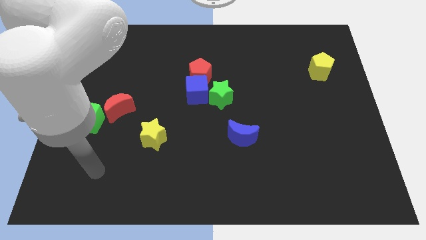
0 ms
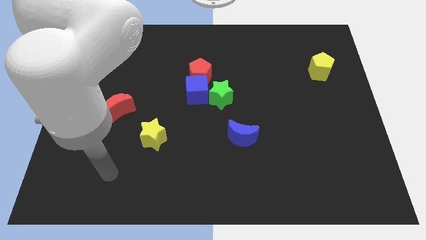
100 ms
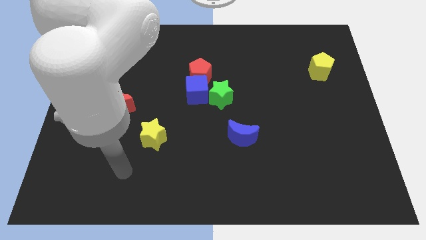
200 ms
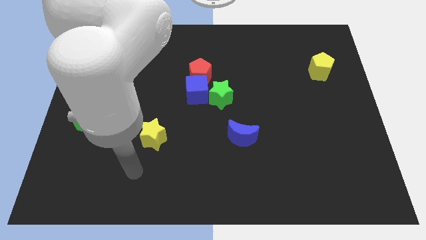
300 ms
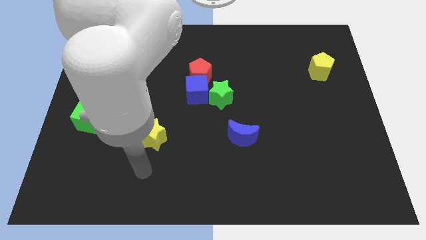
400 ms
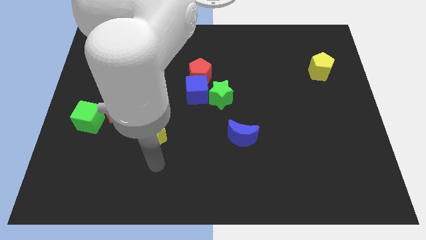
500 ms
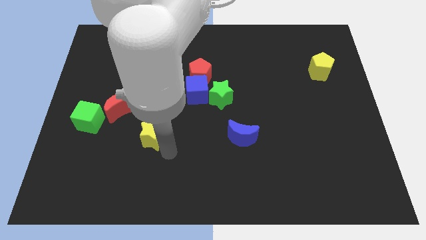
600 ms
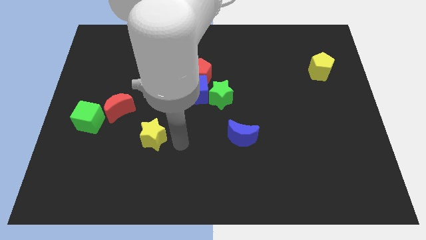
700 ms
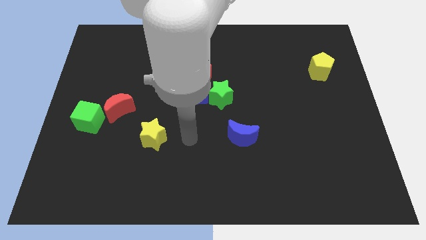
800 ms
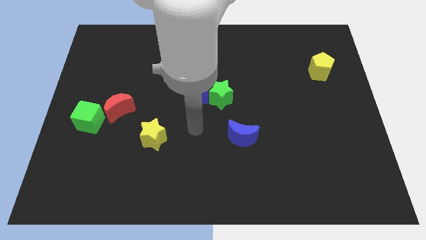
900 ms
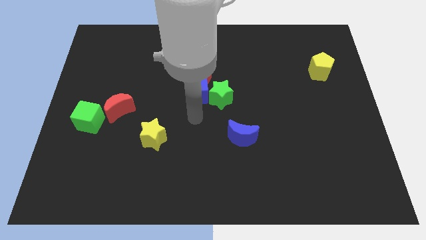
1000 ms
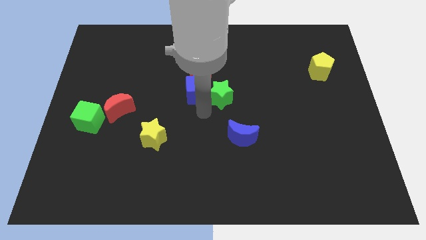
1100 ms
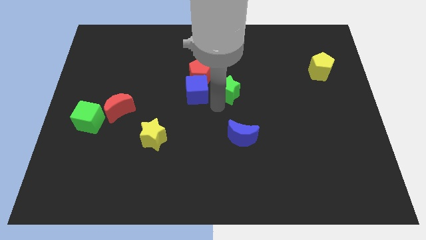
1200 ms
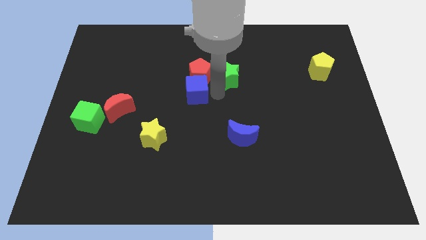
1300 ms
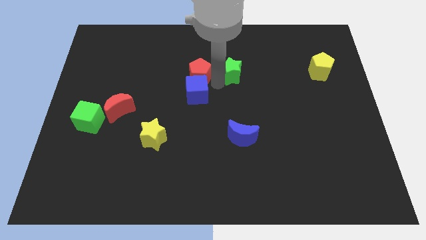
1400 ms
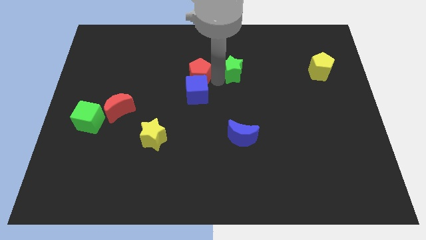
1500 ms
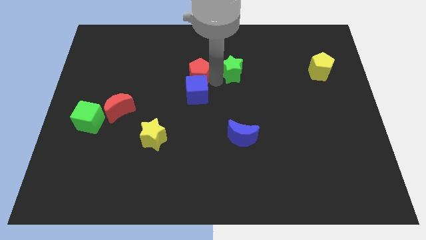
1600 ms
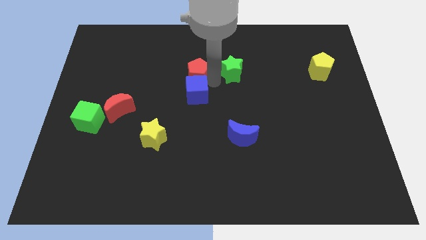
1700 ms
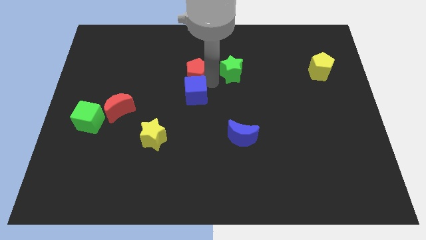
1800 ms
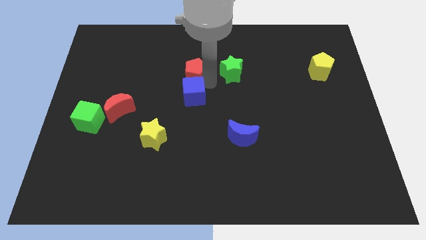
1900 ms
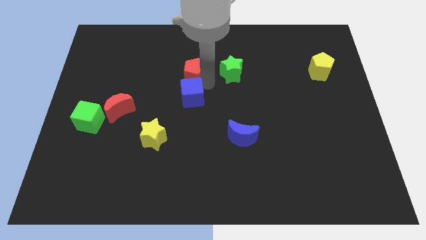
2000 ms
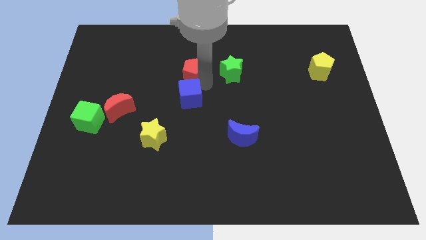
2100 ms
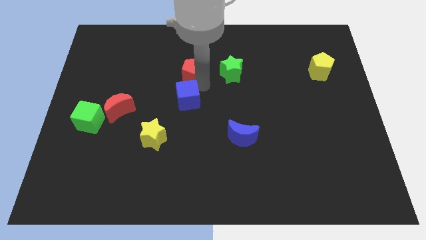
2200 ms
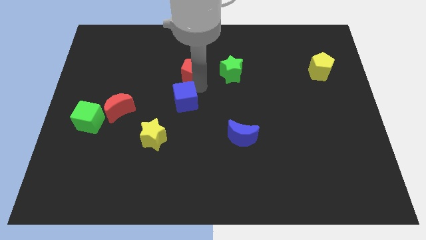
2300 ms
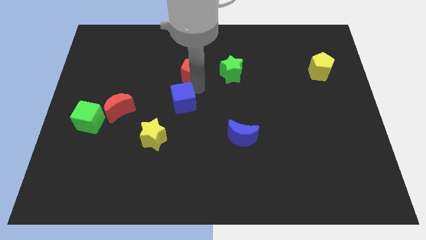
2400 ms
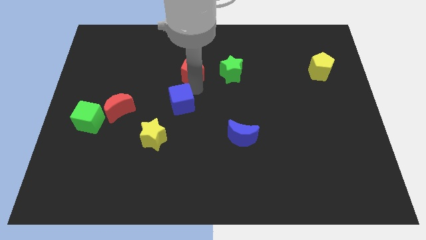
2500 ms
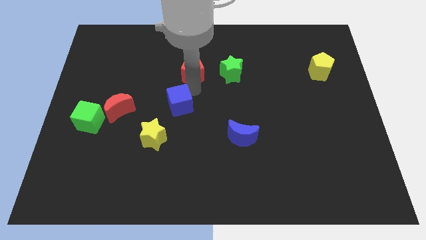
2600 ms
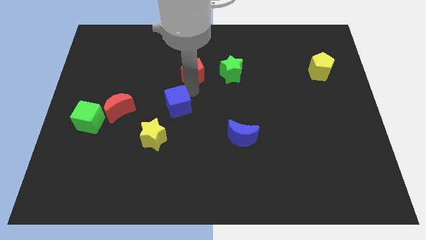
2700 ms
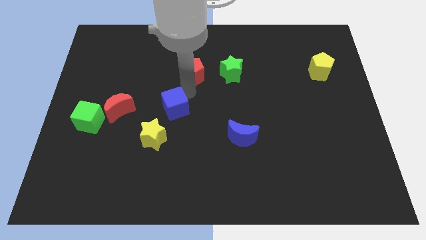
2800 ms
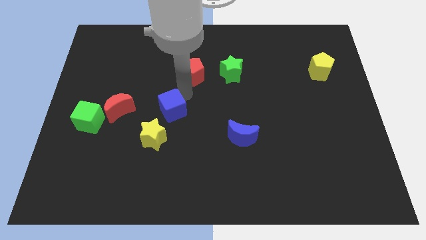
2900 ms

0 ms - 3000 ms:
move the blue cube diagonally down and to the left a little

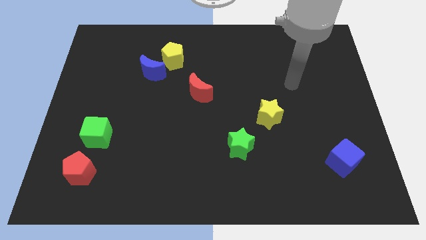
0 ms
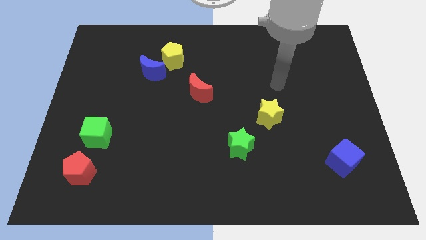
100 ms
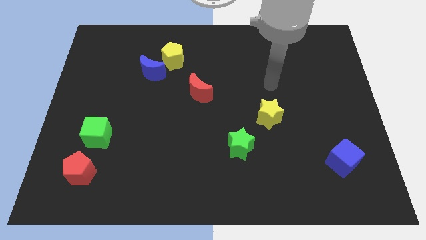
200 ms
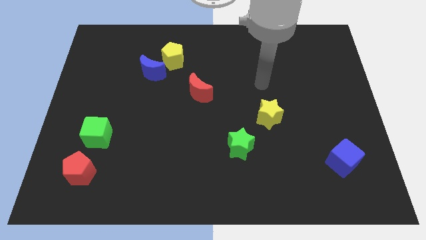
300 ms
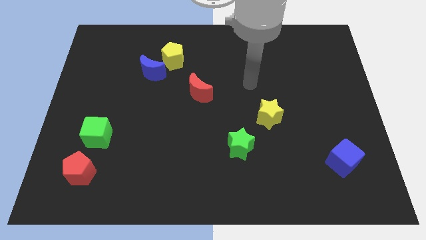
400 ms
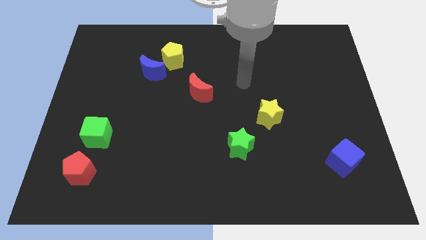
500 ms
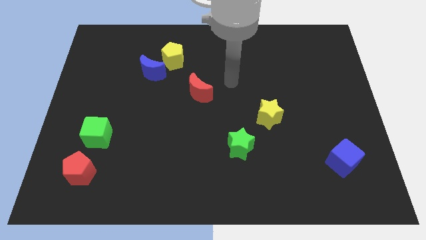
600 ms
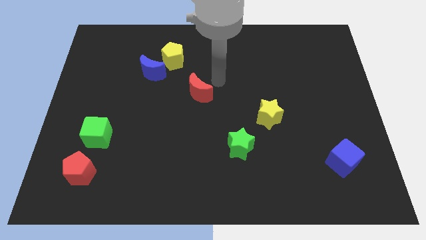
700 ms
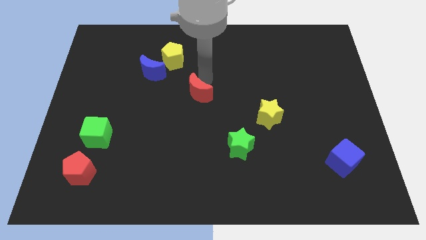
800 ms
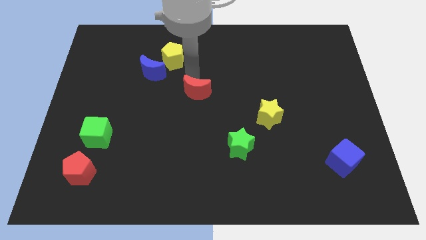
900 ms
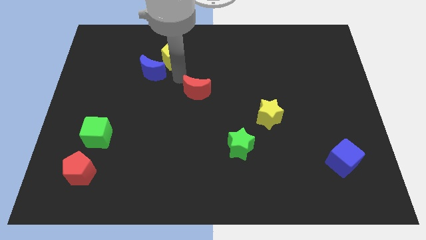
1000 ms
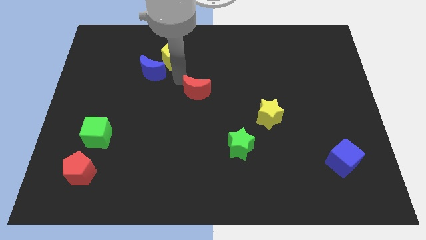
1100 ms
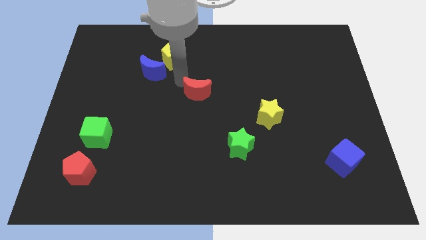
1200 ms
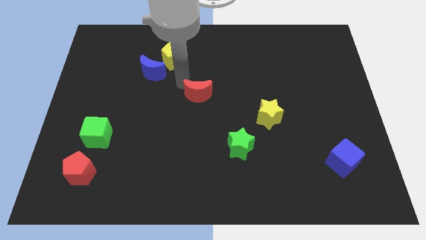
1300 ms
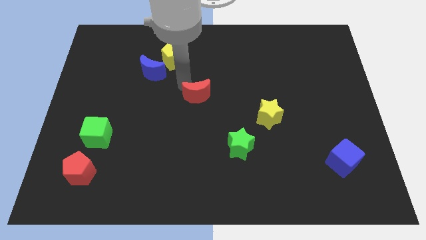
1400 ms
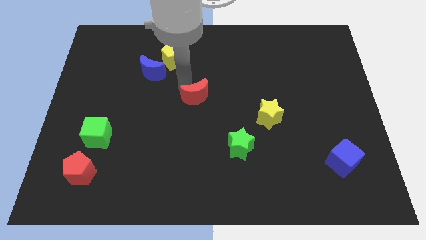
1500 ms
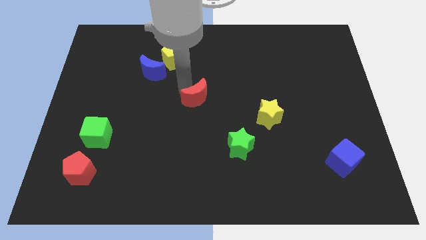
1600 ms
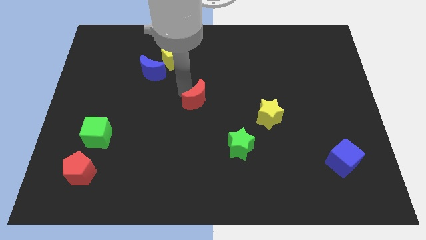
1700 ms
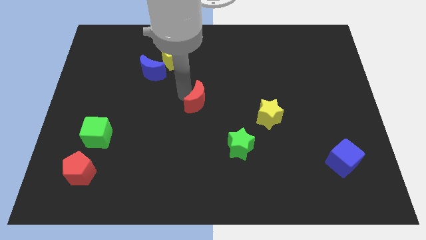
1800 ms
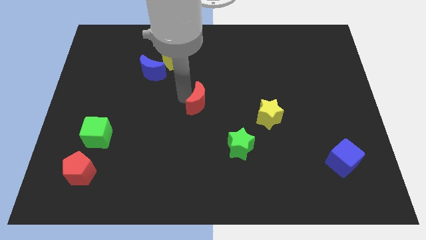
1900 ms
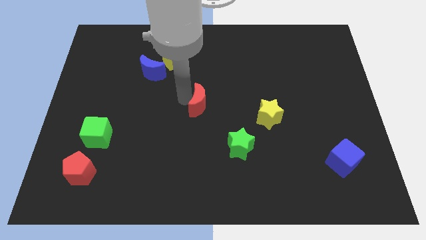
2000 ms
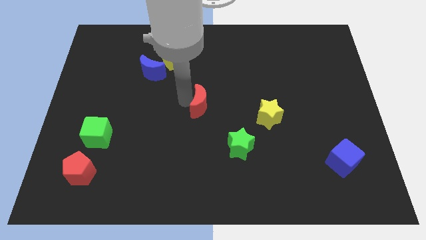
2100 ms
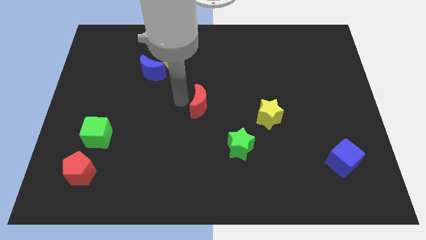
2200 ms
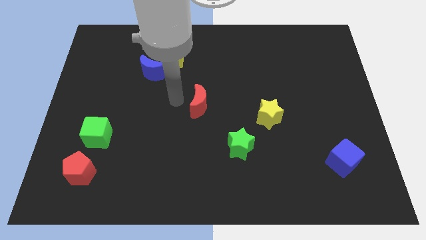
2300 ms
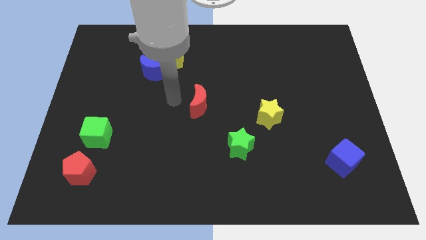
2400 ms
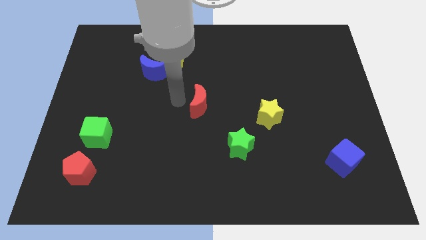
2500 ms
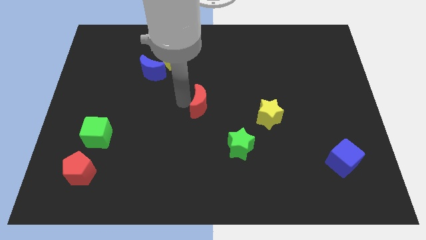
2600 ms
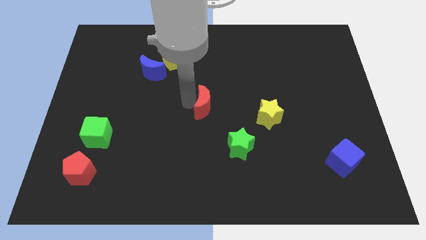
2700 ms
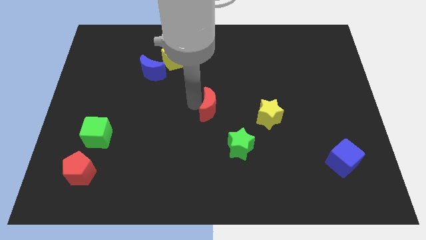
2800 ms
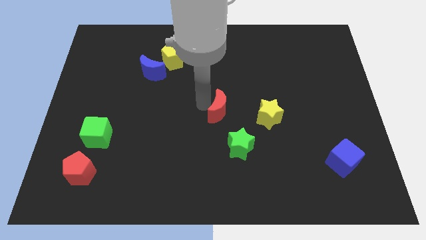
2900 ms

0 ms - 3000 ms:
move the red moon down and to the right somewhat

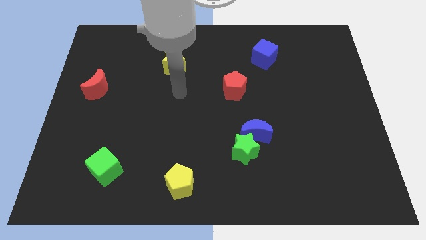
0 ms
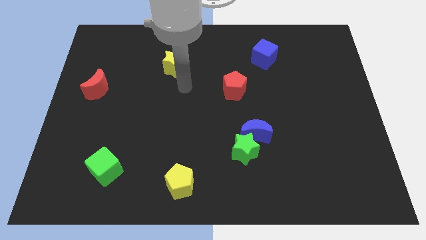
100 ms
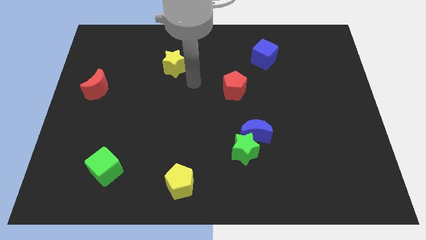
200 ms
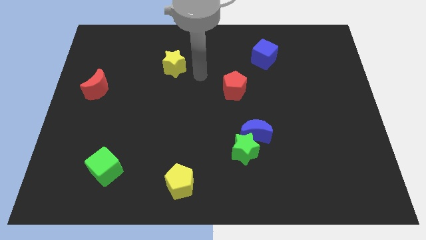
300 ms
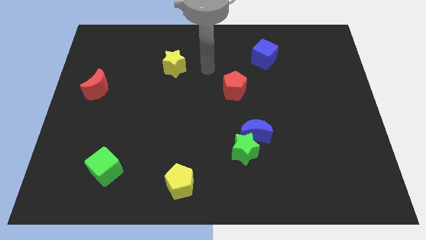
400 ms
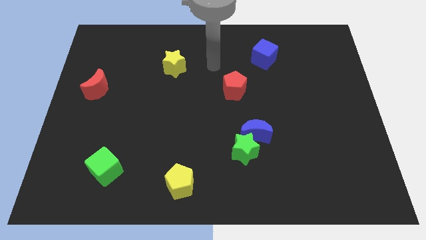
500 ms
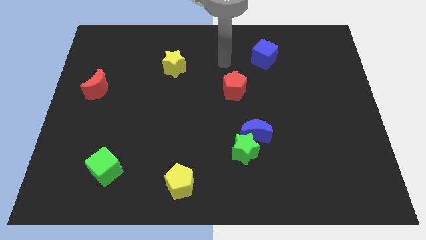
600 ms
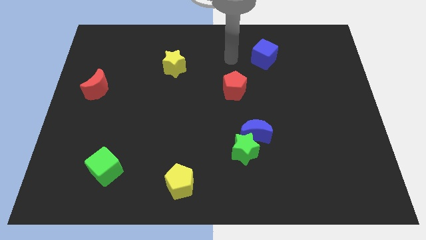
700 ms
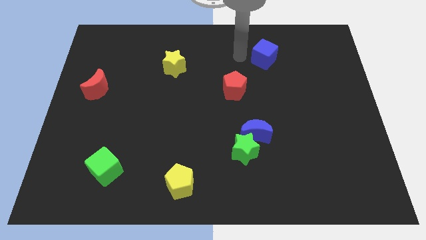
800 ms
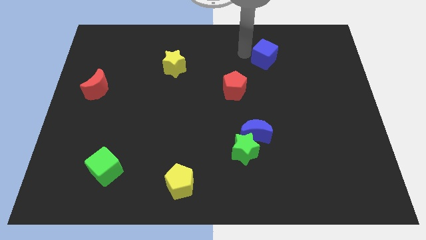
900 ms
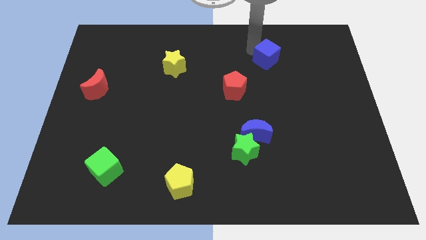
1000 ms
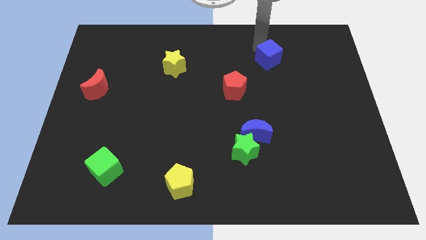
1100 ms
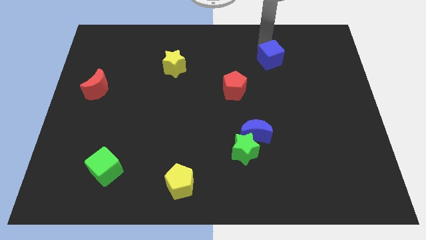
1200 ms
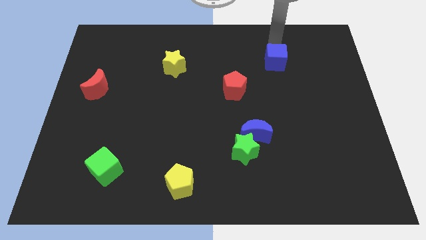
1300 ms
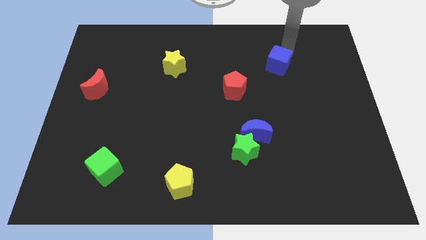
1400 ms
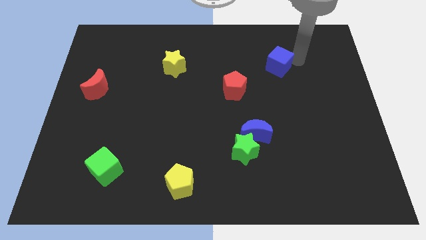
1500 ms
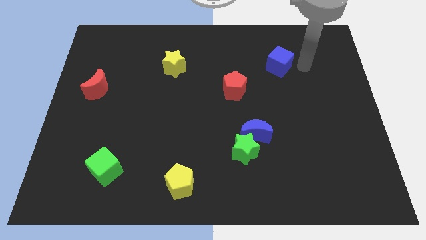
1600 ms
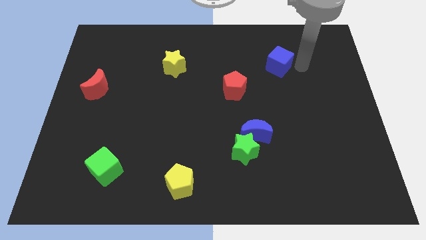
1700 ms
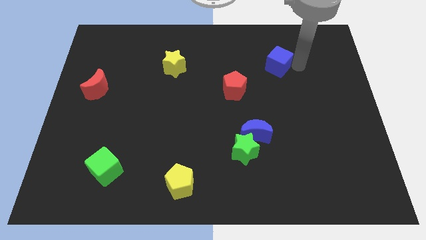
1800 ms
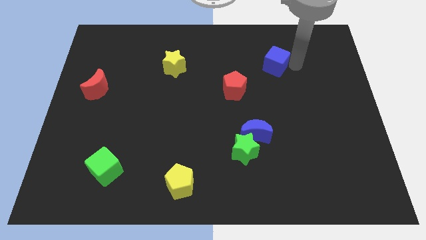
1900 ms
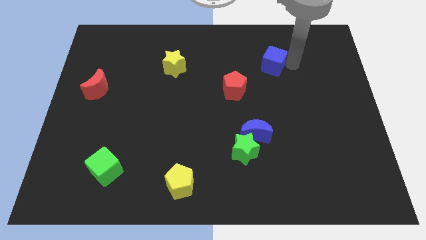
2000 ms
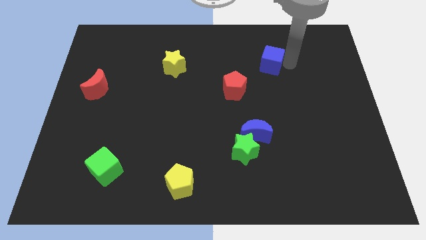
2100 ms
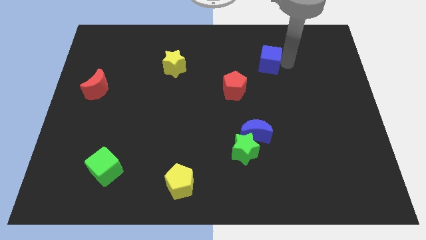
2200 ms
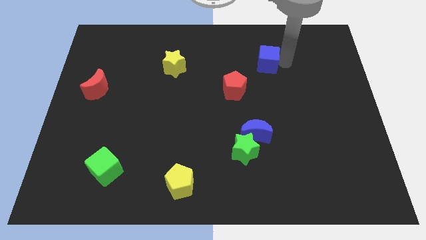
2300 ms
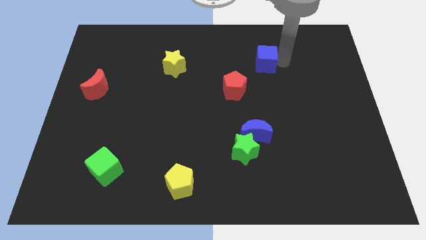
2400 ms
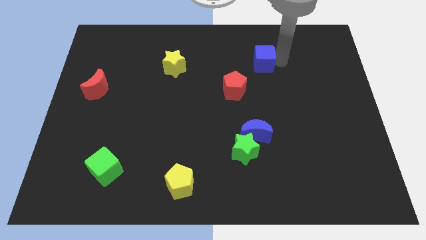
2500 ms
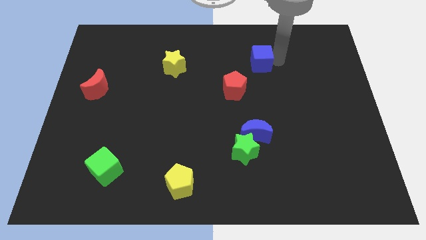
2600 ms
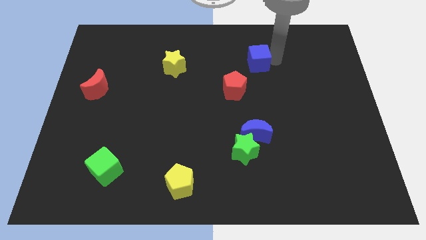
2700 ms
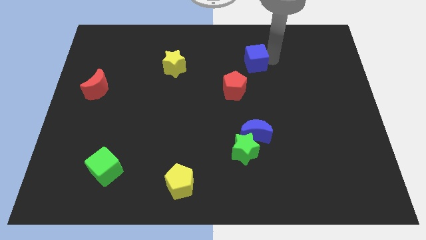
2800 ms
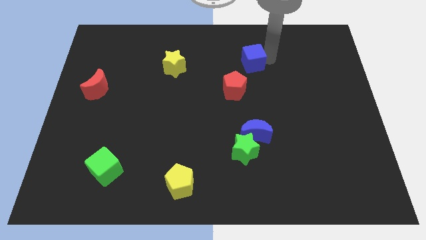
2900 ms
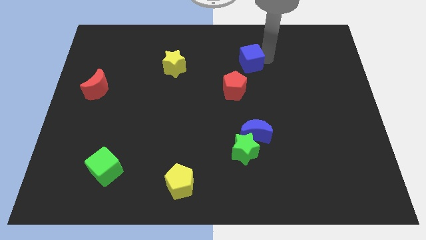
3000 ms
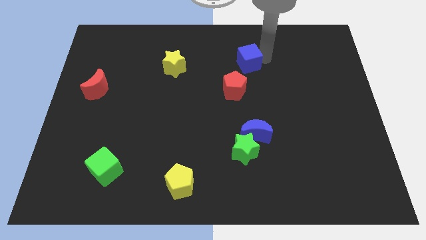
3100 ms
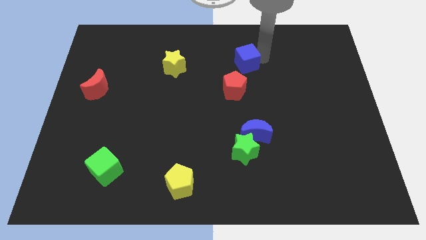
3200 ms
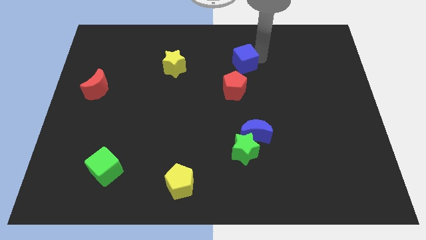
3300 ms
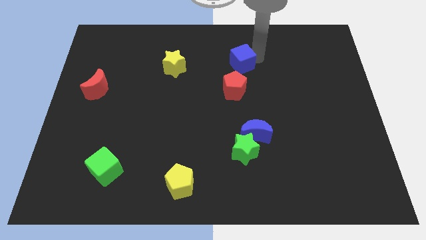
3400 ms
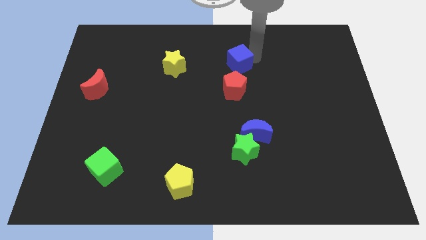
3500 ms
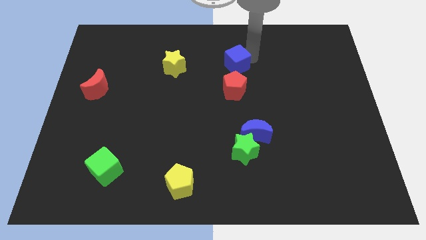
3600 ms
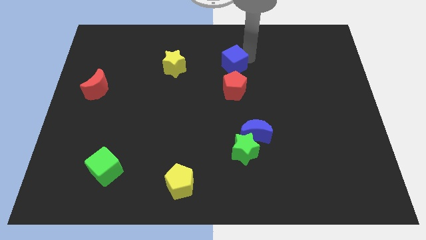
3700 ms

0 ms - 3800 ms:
slide the blue cube down and then to the left slightly
